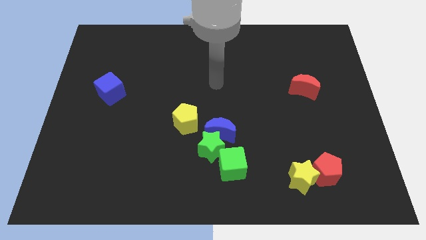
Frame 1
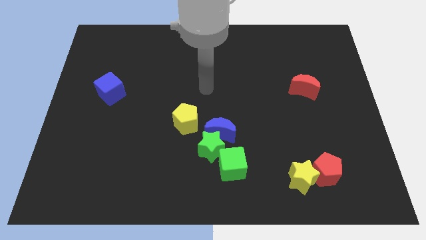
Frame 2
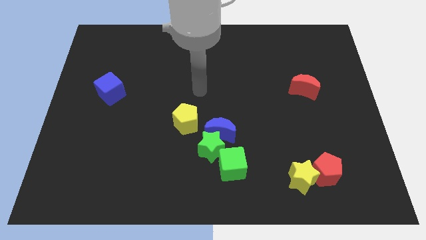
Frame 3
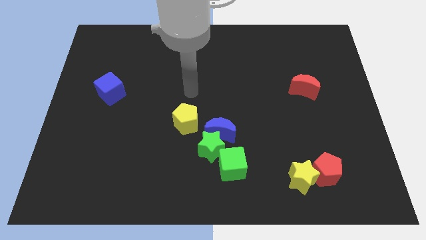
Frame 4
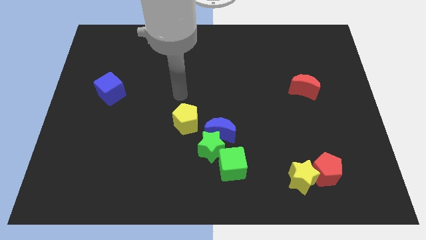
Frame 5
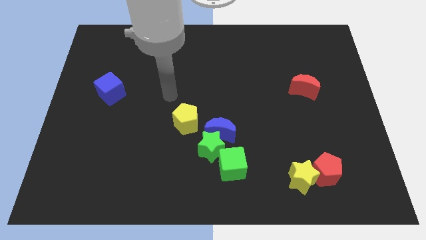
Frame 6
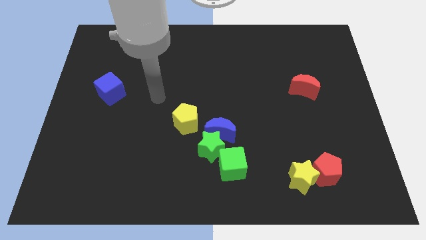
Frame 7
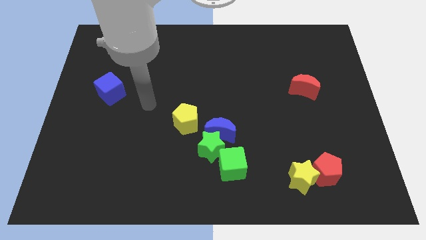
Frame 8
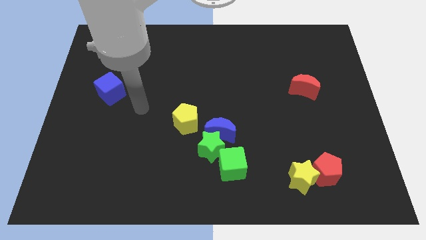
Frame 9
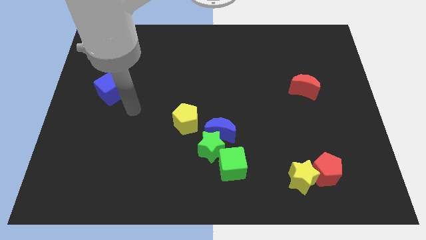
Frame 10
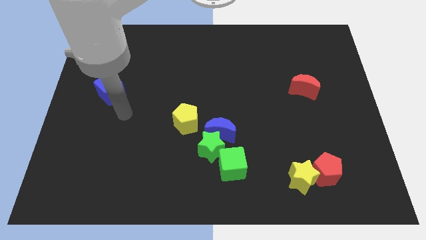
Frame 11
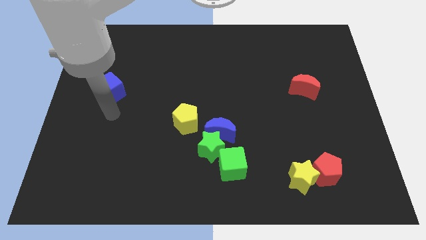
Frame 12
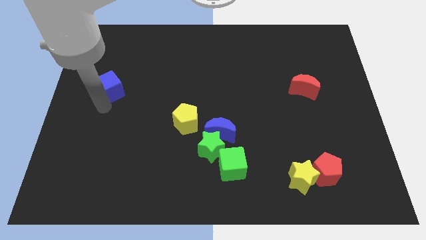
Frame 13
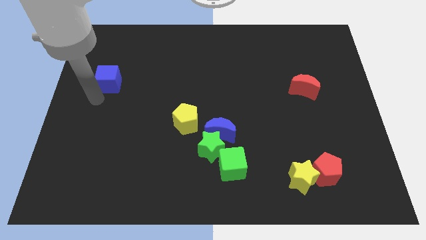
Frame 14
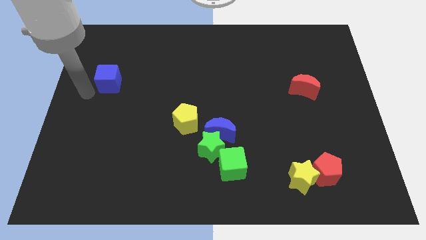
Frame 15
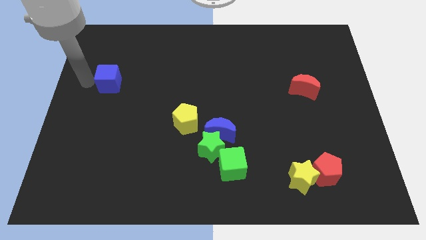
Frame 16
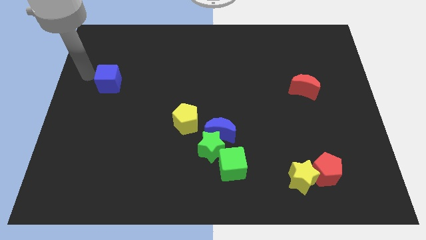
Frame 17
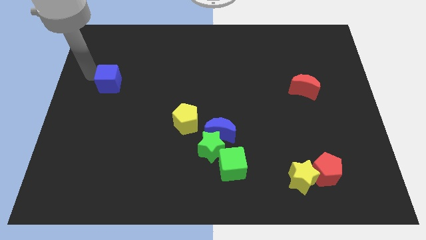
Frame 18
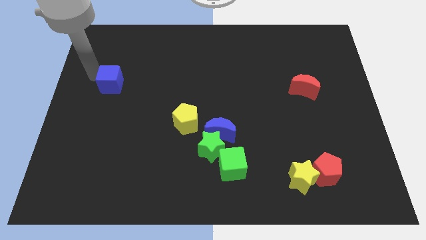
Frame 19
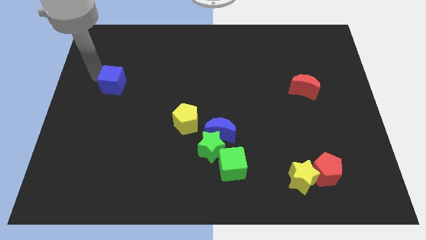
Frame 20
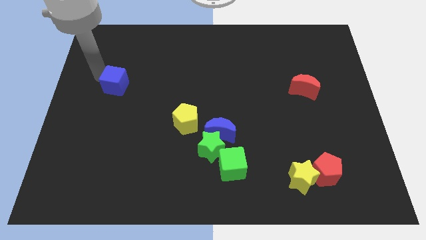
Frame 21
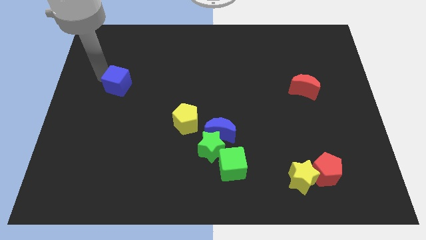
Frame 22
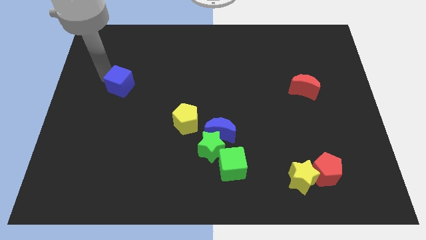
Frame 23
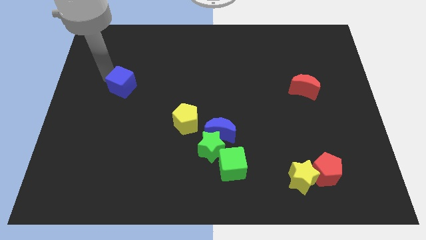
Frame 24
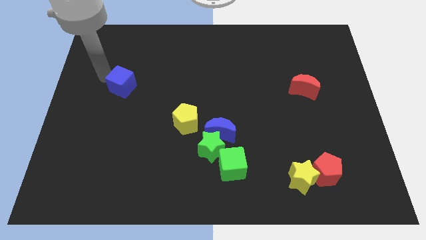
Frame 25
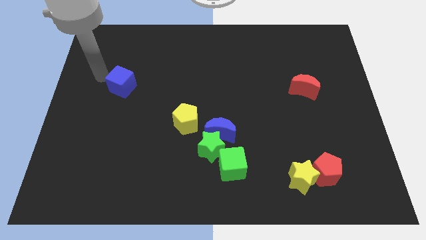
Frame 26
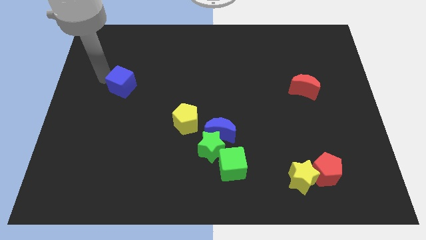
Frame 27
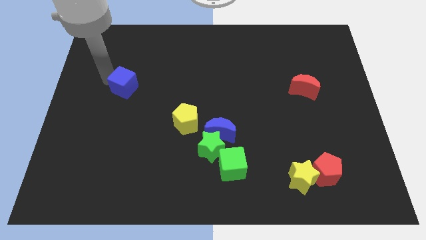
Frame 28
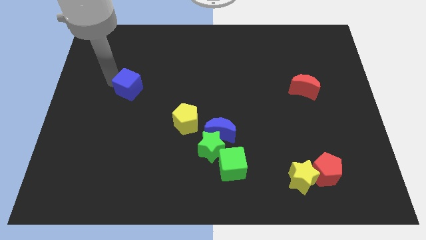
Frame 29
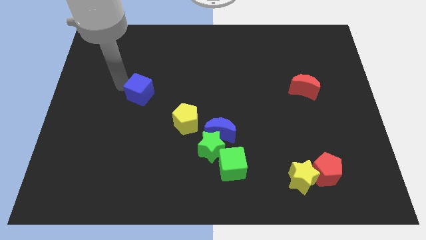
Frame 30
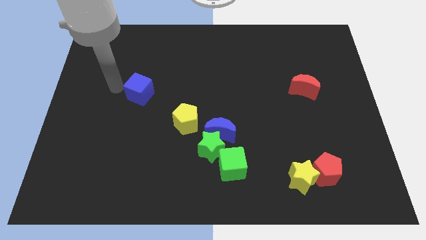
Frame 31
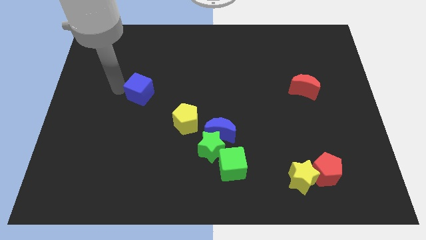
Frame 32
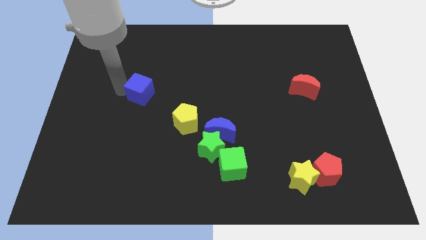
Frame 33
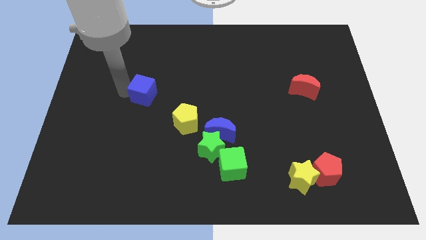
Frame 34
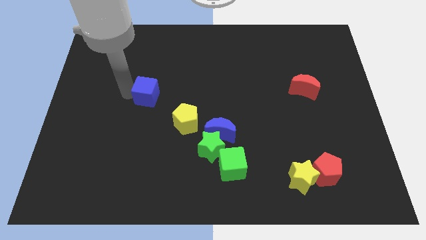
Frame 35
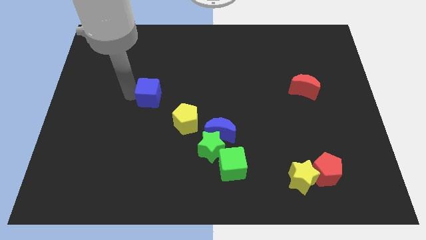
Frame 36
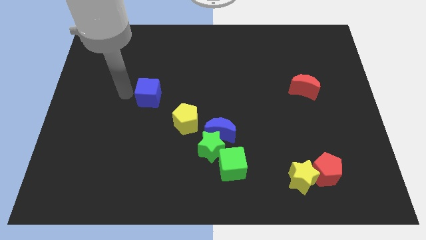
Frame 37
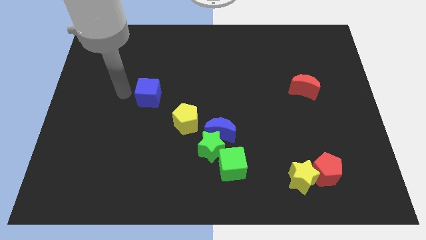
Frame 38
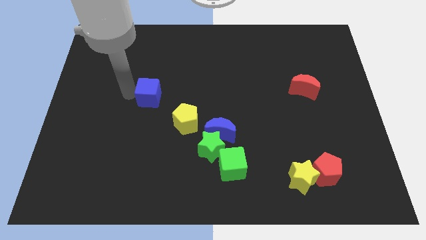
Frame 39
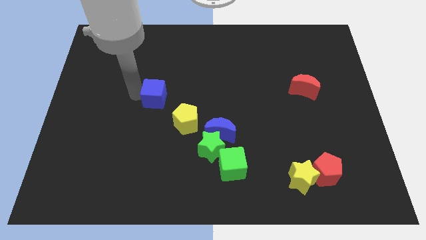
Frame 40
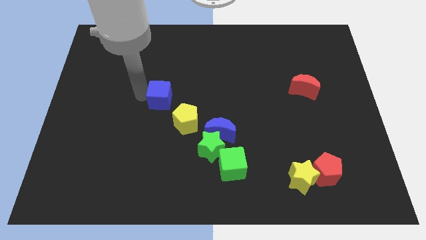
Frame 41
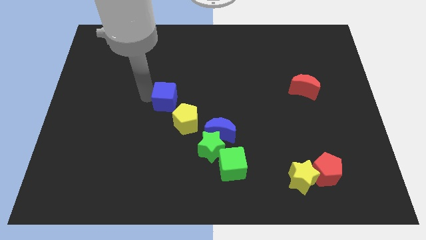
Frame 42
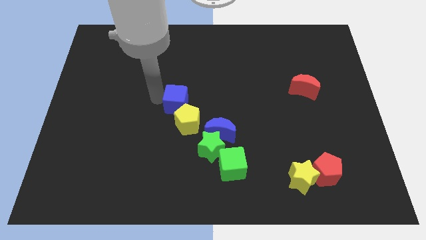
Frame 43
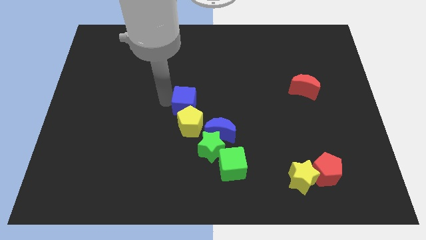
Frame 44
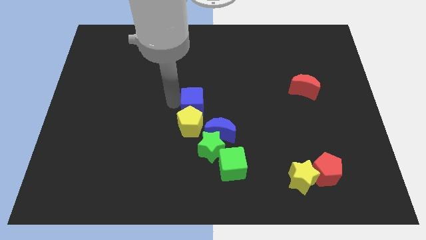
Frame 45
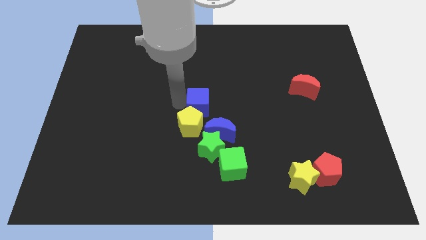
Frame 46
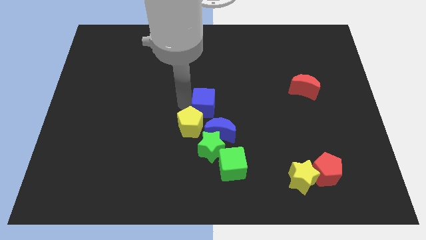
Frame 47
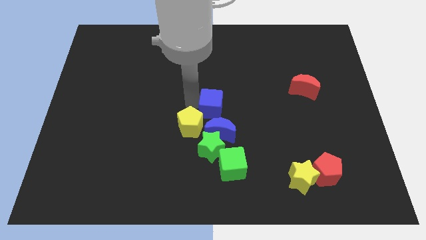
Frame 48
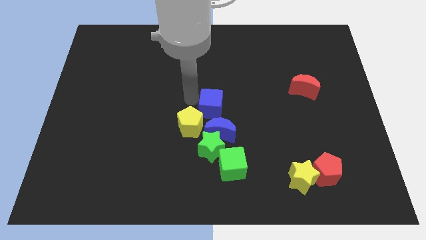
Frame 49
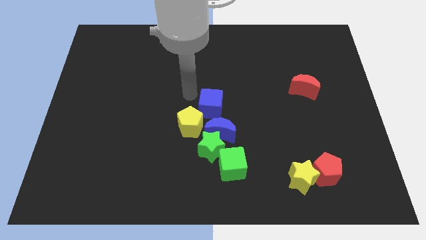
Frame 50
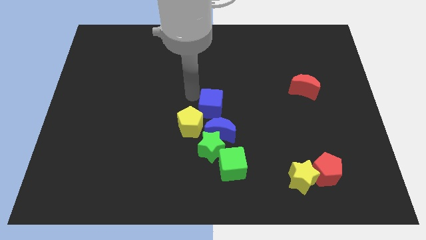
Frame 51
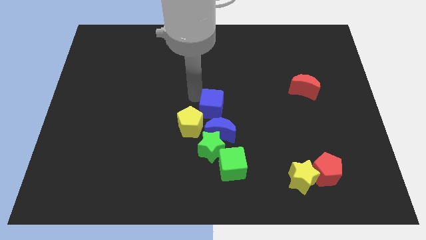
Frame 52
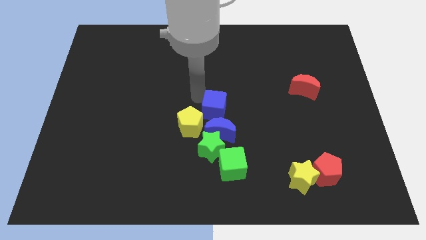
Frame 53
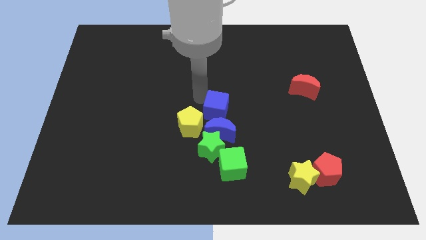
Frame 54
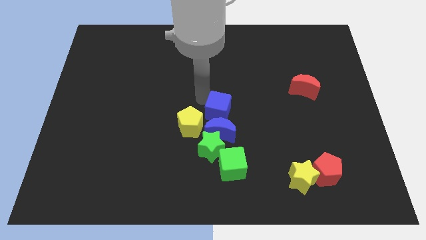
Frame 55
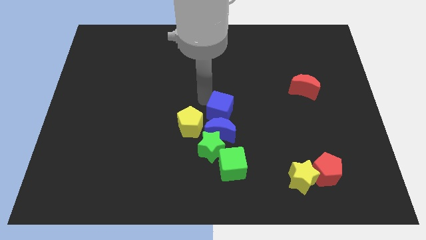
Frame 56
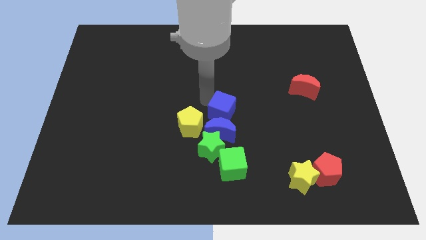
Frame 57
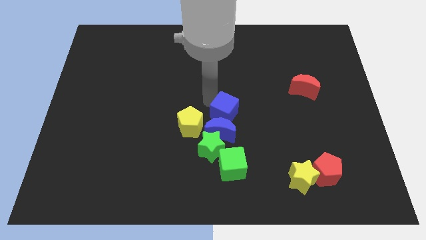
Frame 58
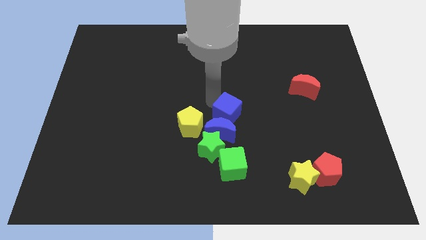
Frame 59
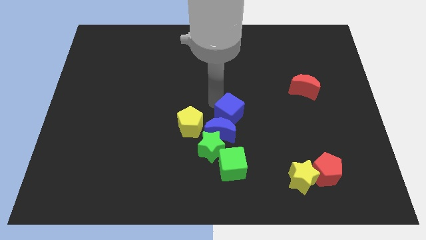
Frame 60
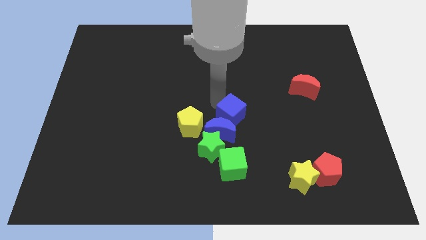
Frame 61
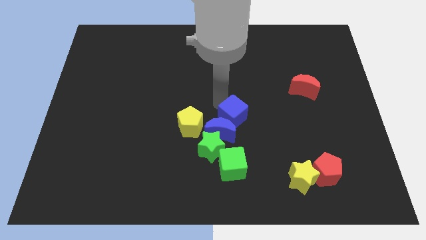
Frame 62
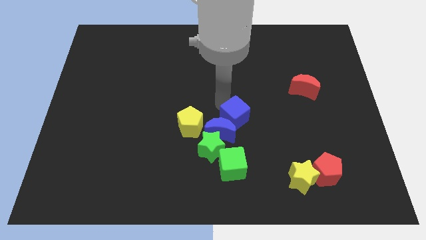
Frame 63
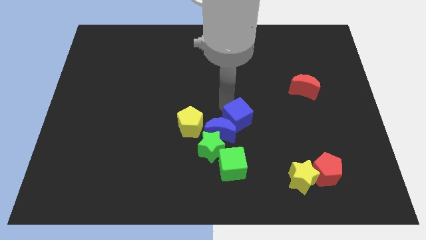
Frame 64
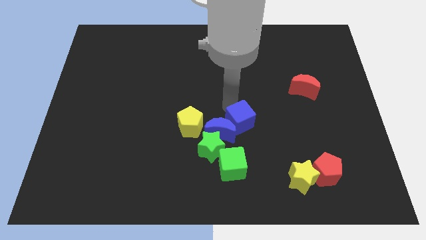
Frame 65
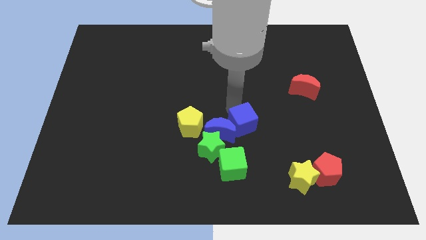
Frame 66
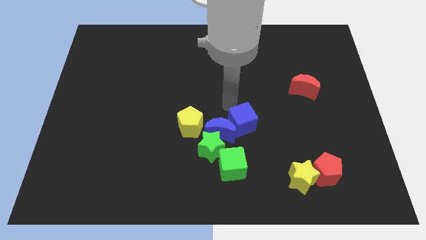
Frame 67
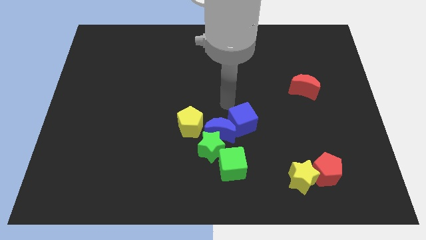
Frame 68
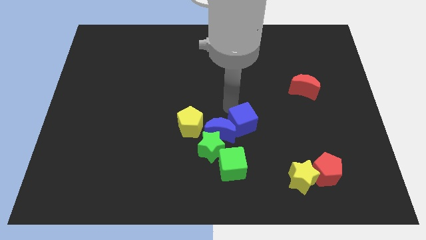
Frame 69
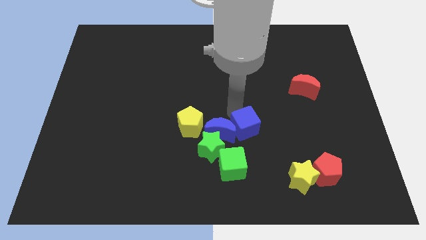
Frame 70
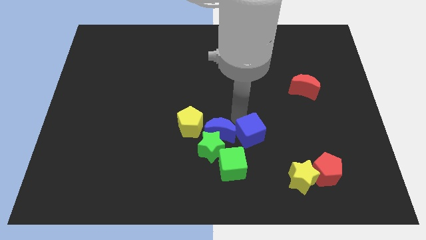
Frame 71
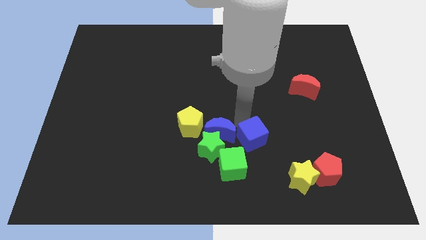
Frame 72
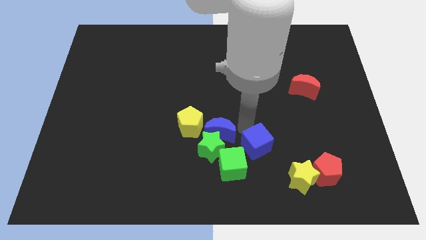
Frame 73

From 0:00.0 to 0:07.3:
put the blue cube to the top left of the yellow star
